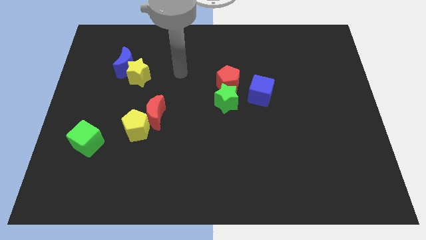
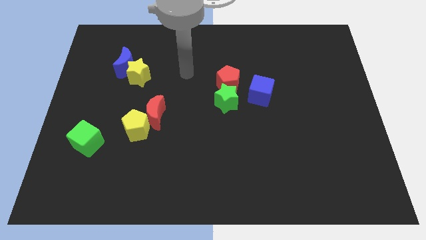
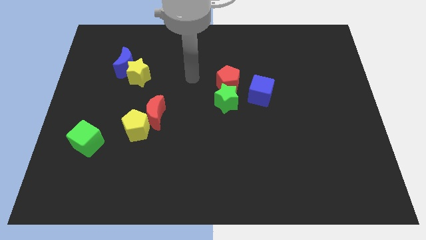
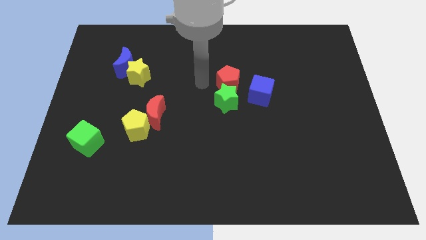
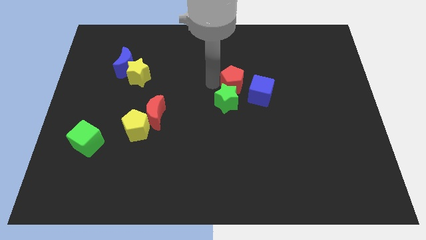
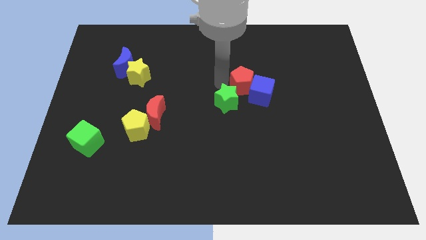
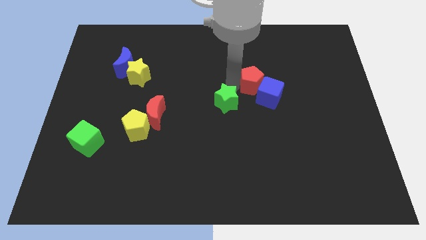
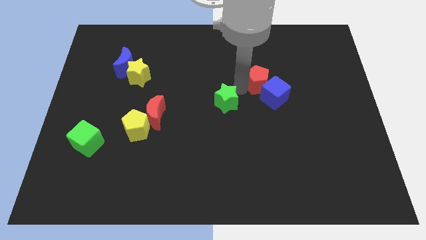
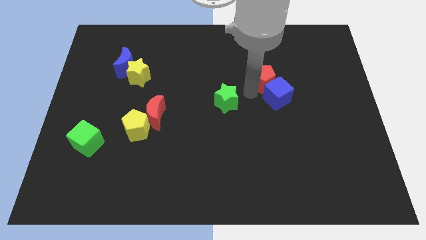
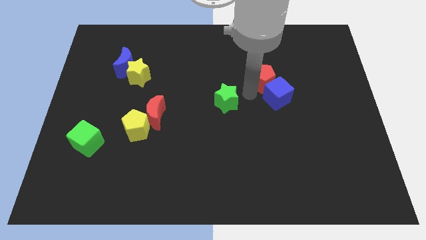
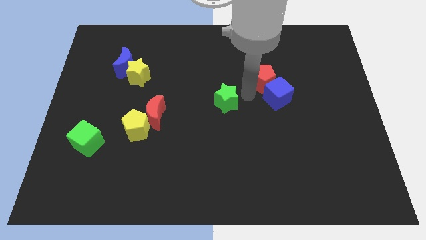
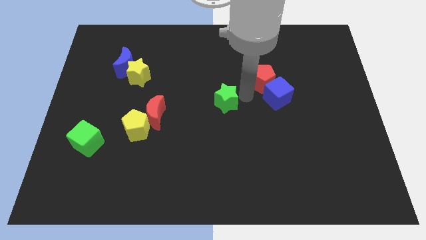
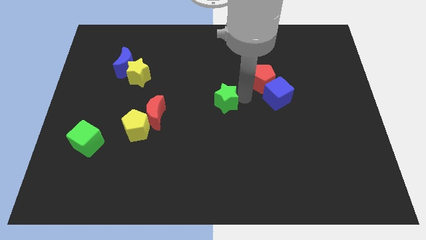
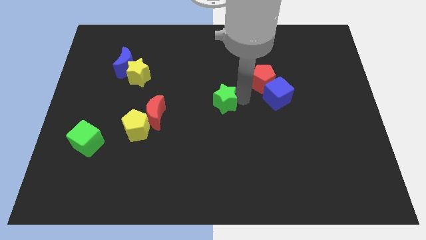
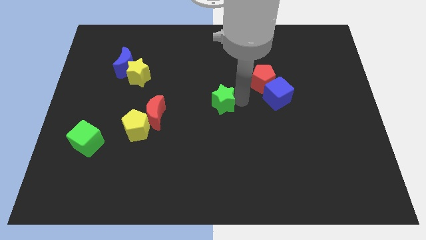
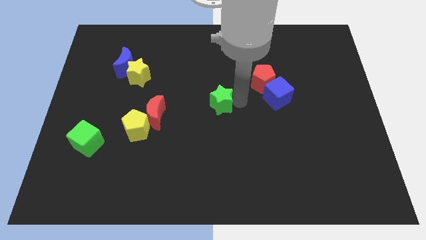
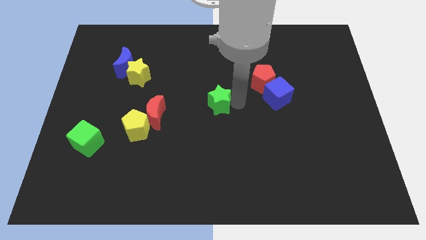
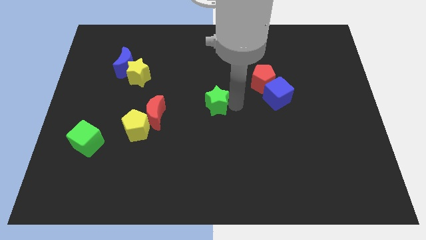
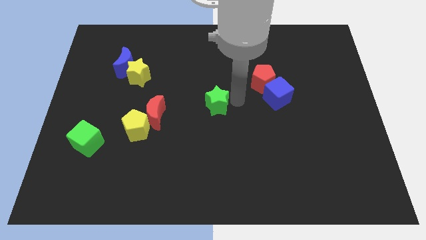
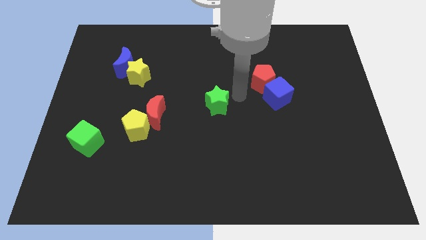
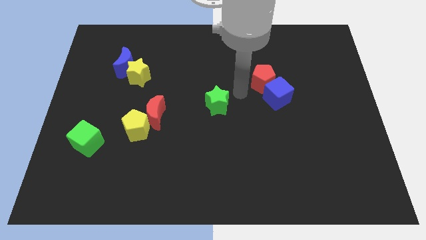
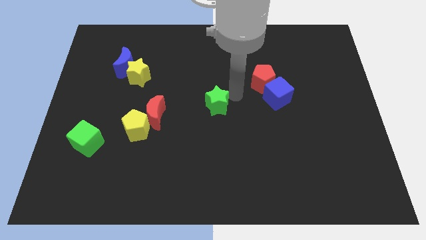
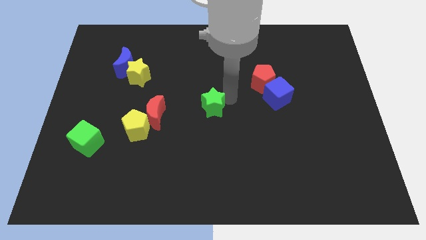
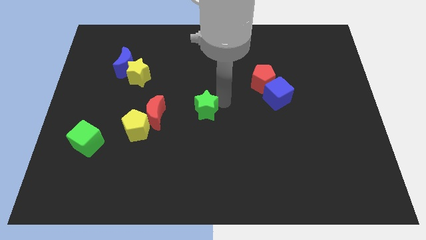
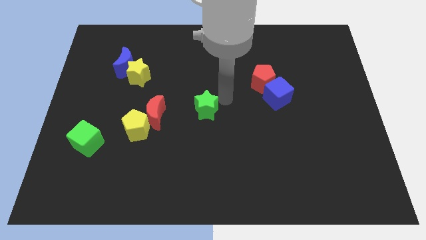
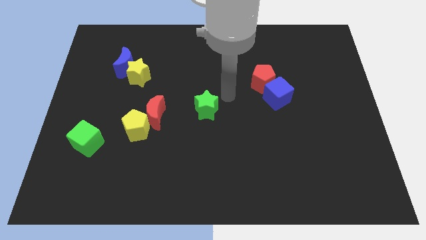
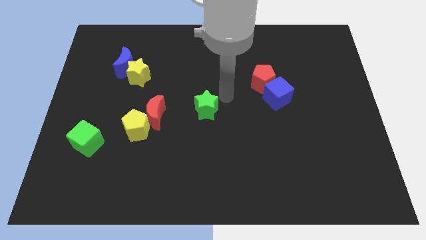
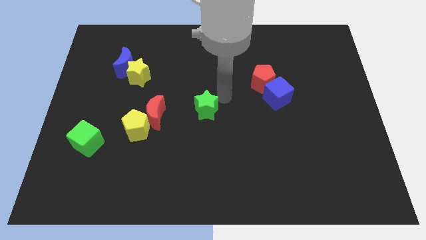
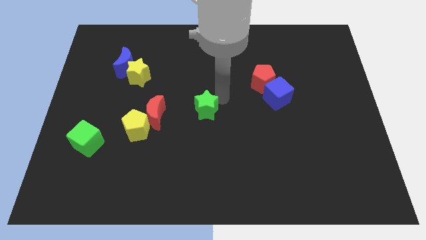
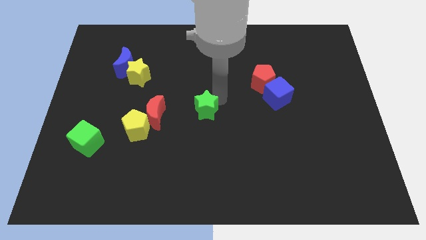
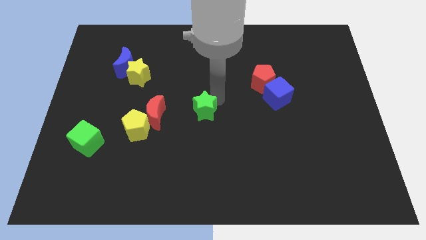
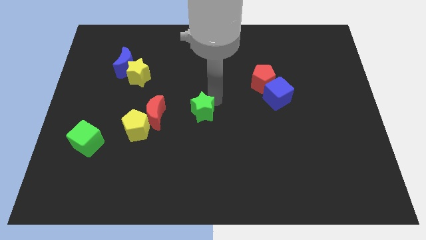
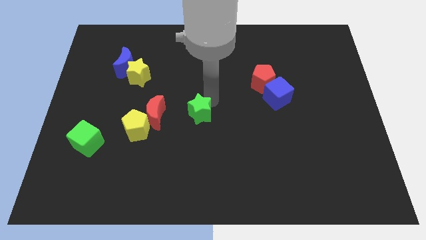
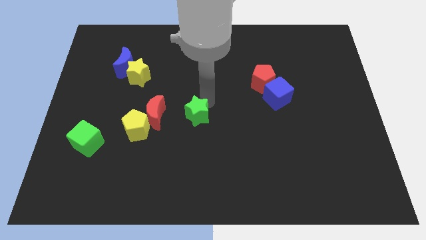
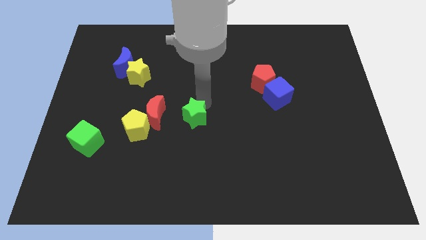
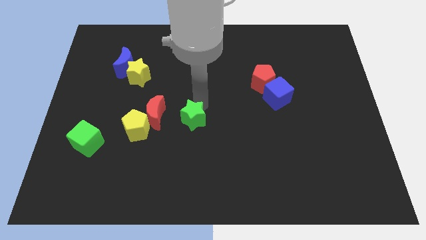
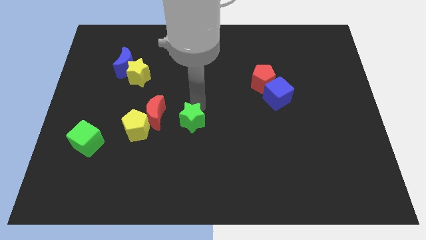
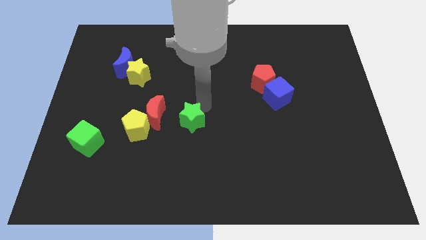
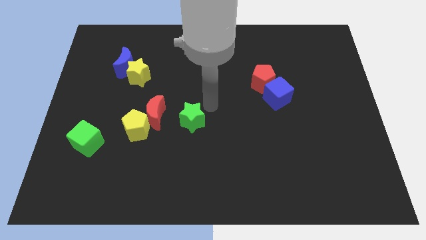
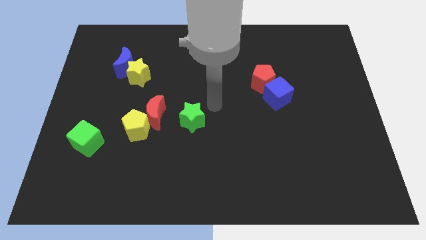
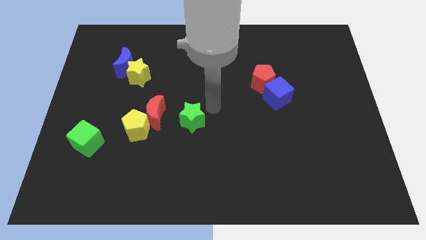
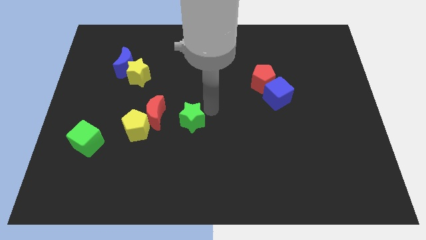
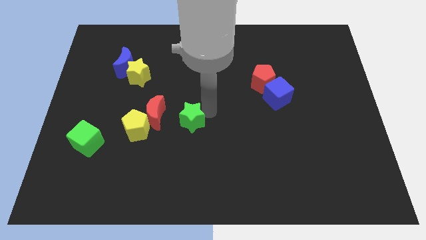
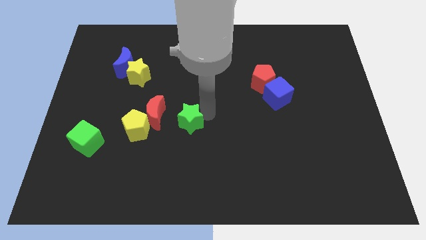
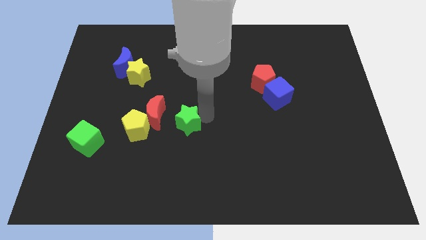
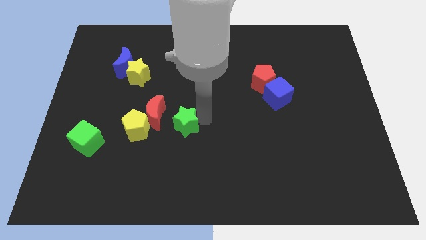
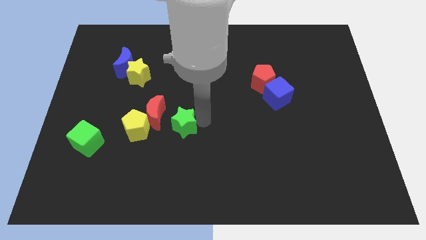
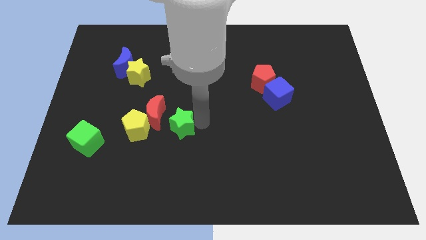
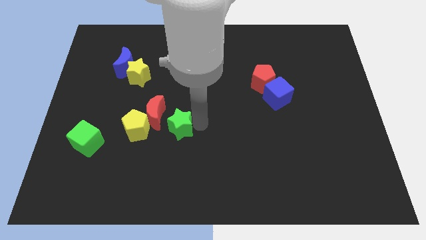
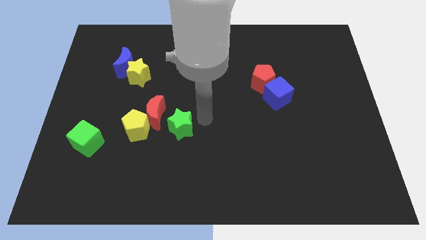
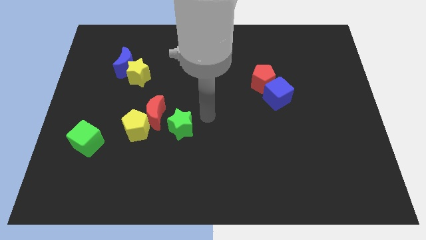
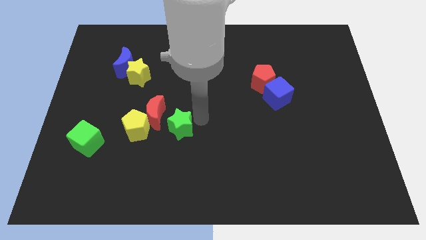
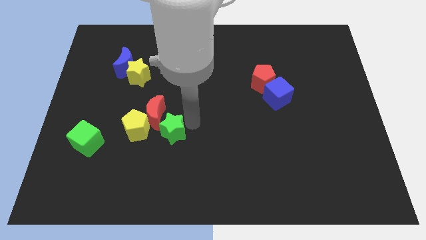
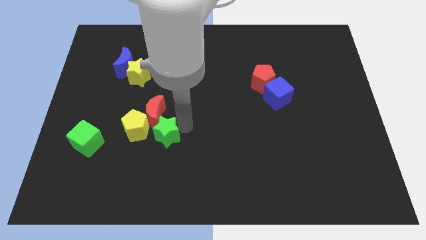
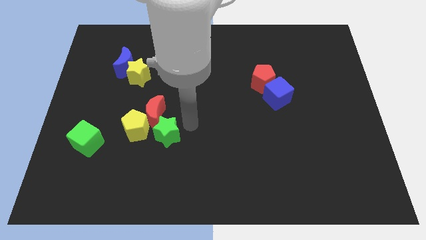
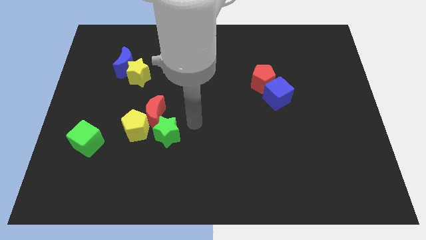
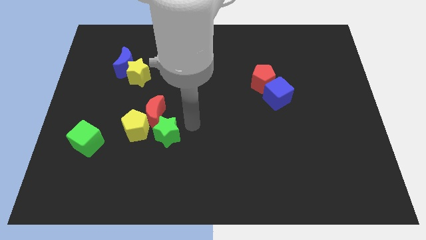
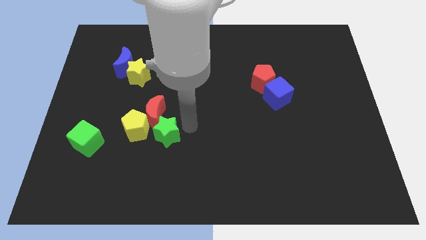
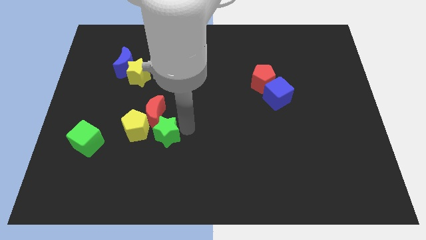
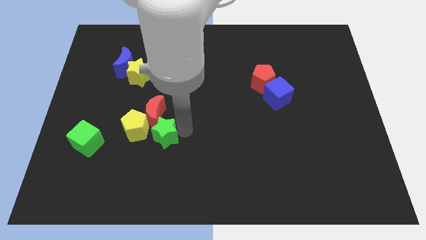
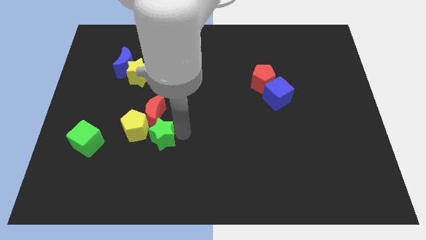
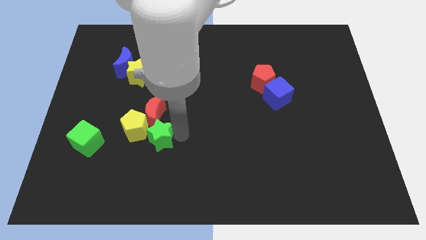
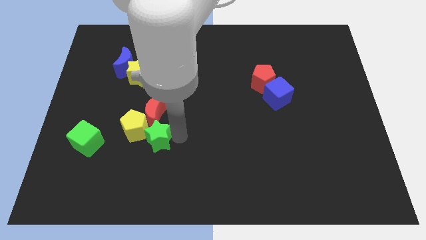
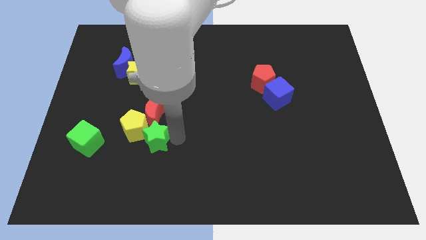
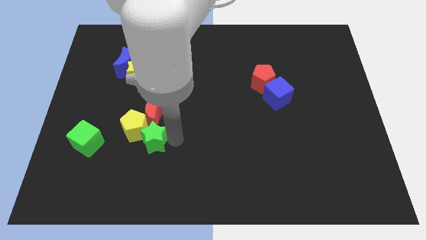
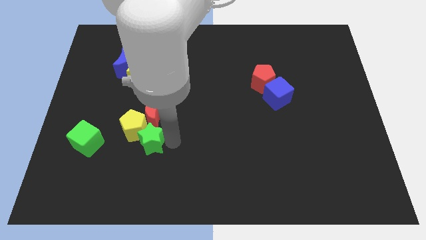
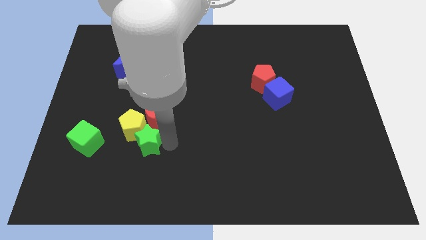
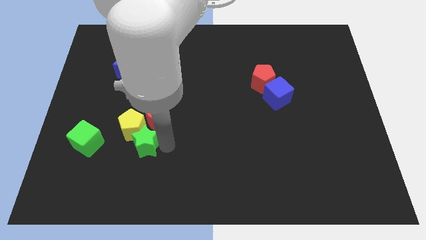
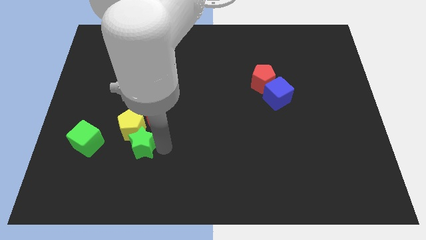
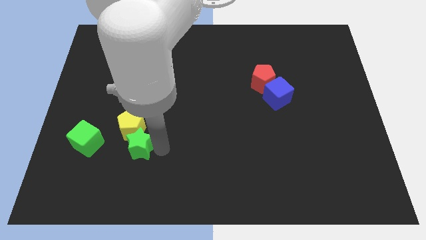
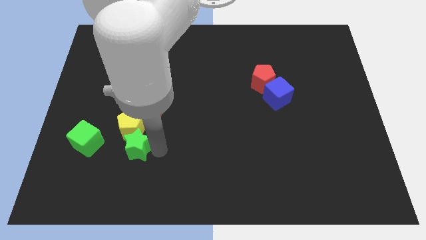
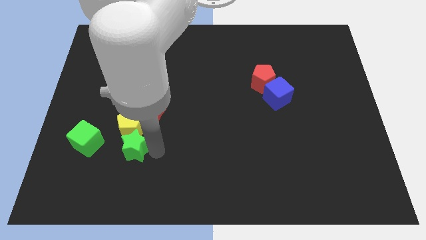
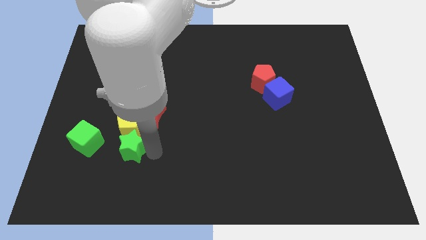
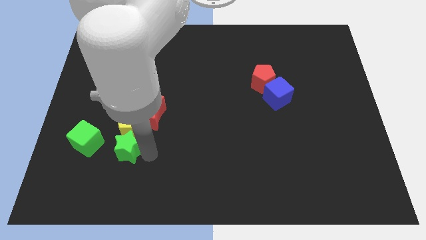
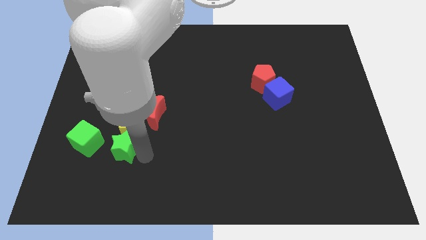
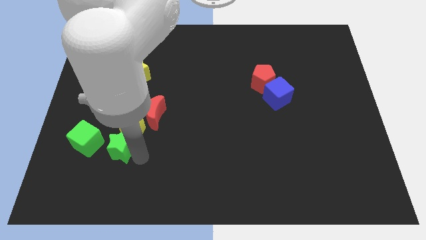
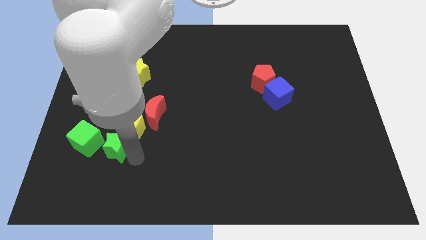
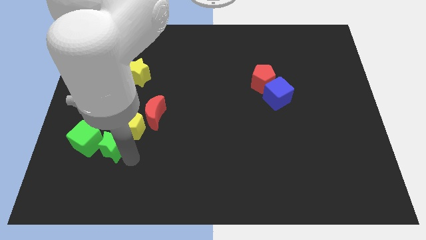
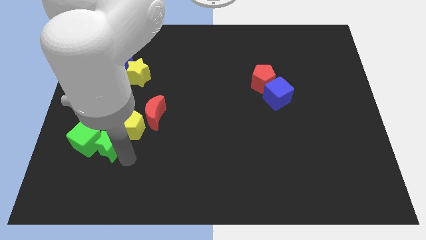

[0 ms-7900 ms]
slide the green star next to the green cube
